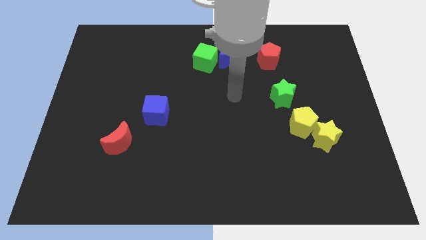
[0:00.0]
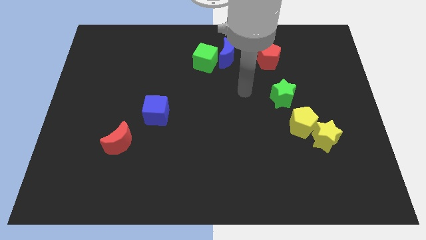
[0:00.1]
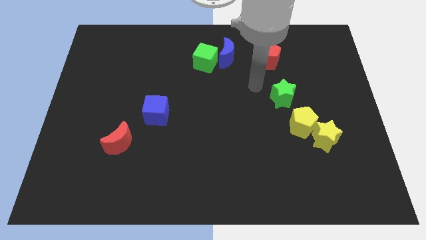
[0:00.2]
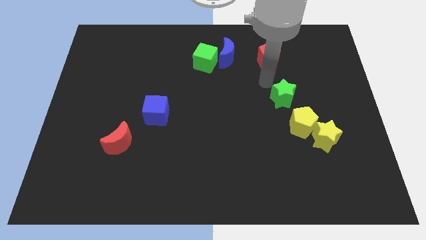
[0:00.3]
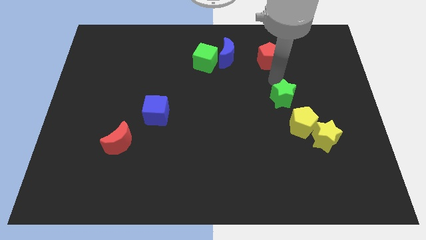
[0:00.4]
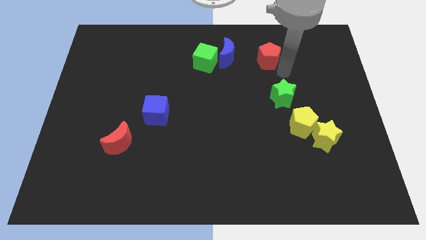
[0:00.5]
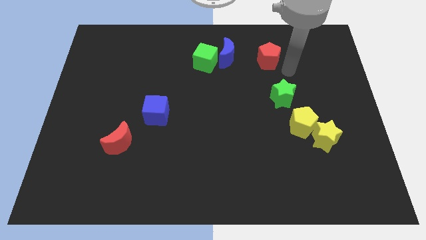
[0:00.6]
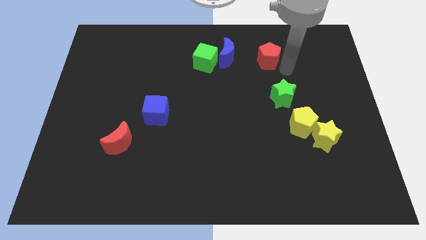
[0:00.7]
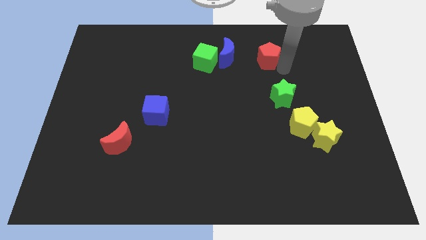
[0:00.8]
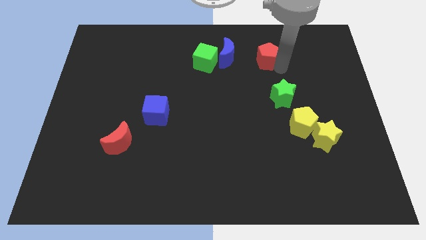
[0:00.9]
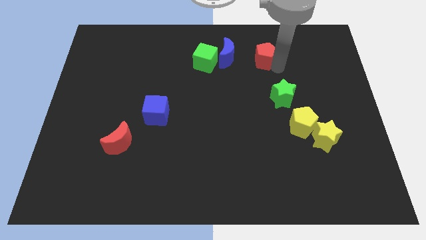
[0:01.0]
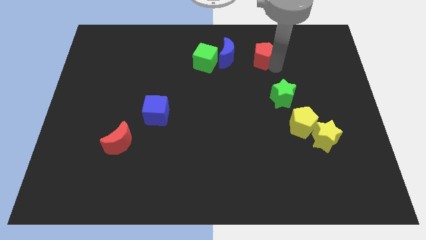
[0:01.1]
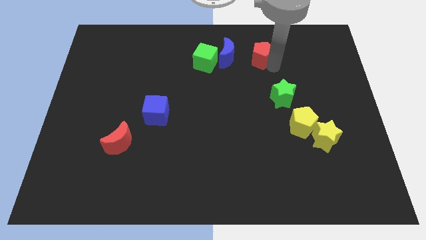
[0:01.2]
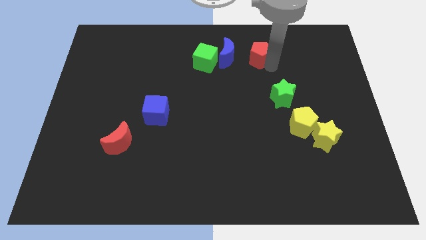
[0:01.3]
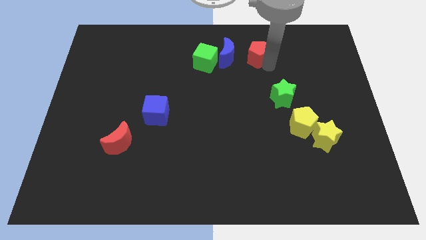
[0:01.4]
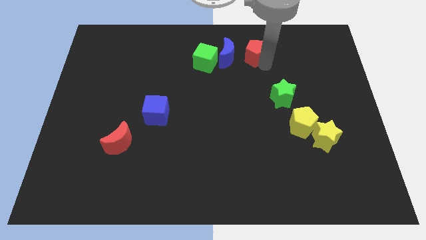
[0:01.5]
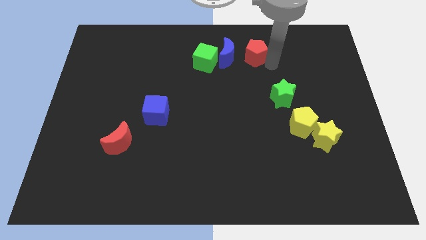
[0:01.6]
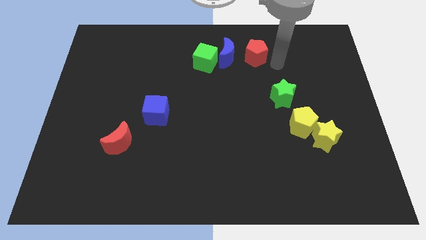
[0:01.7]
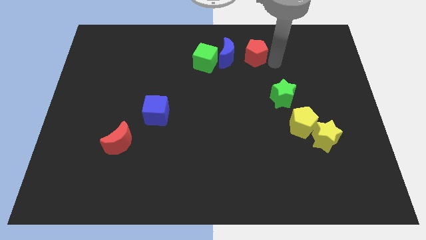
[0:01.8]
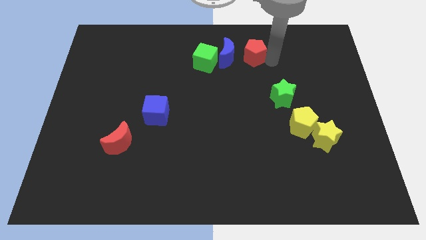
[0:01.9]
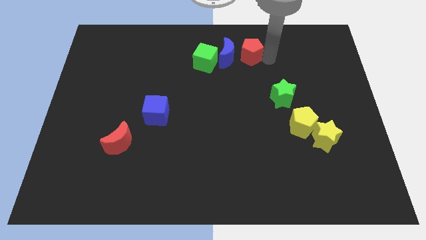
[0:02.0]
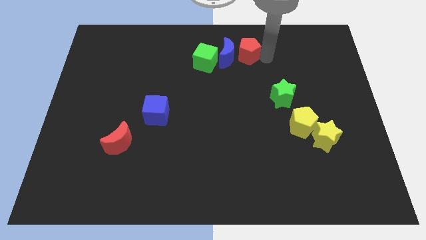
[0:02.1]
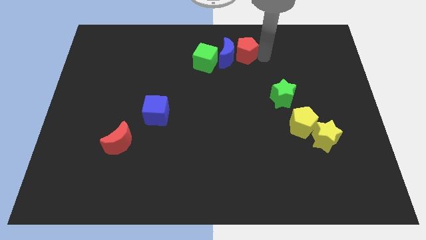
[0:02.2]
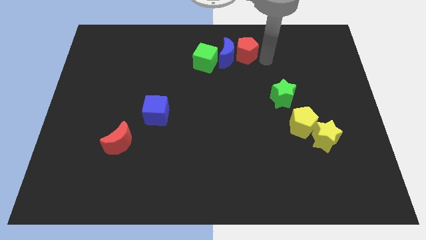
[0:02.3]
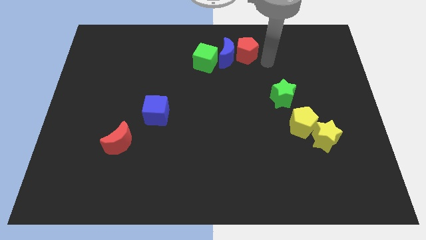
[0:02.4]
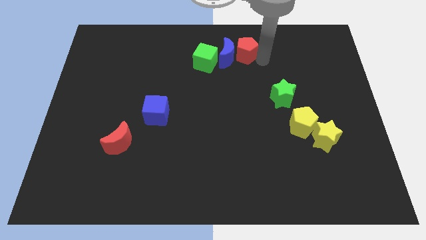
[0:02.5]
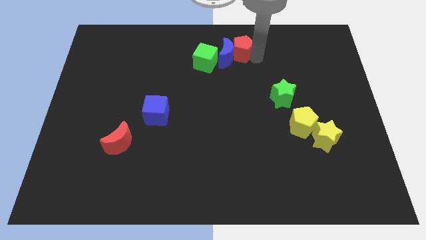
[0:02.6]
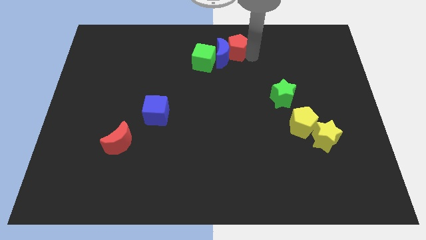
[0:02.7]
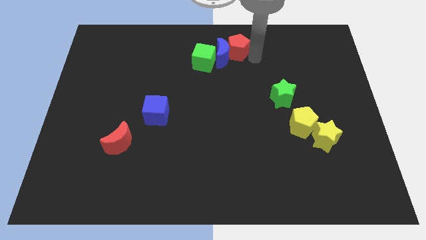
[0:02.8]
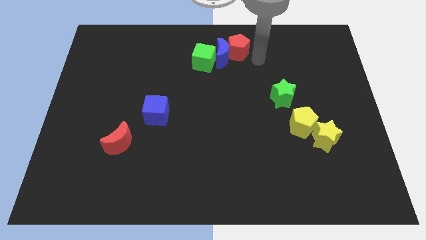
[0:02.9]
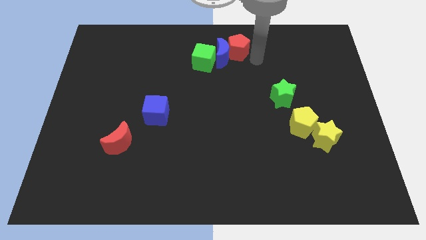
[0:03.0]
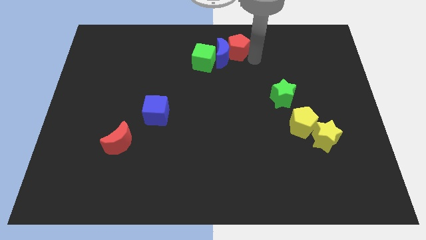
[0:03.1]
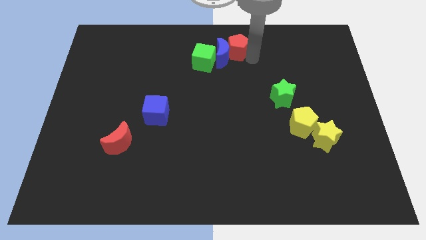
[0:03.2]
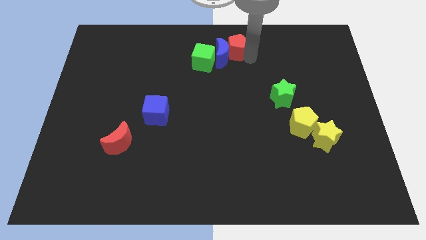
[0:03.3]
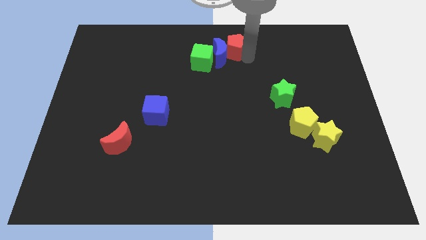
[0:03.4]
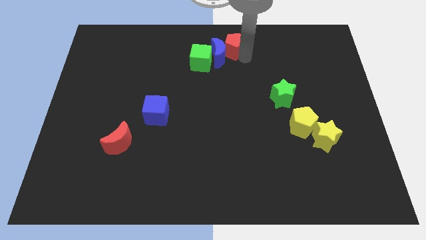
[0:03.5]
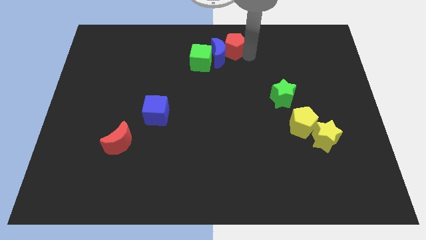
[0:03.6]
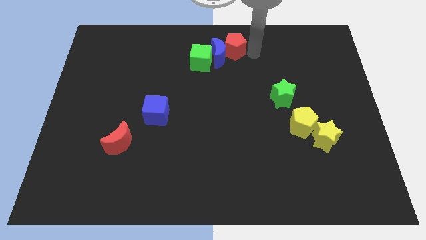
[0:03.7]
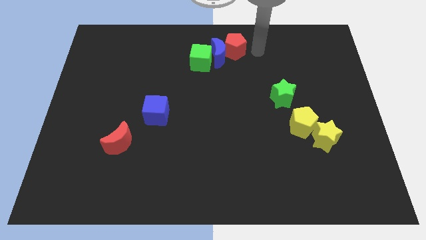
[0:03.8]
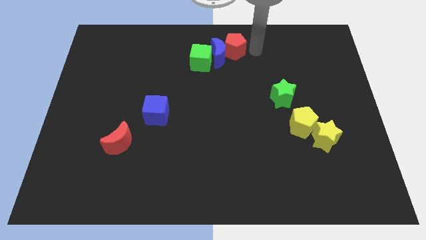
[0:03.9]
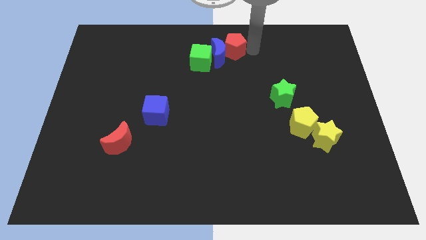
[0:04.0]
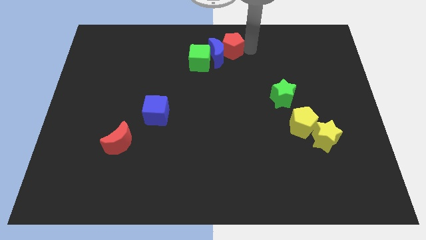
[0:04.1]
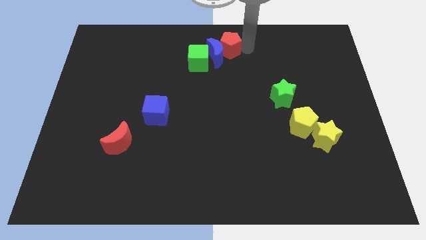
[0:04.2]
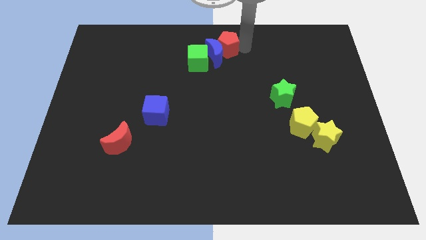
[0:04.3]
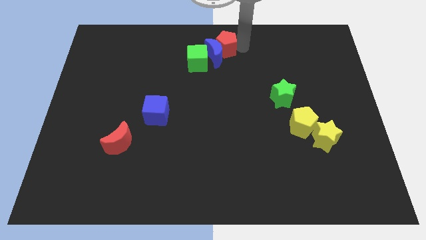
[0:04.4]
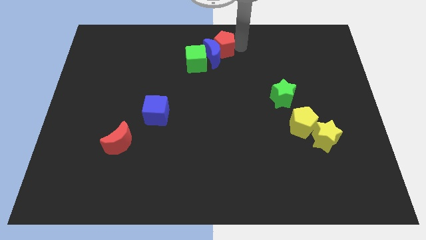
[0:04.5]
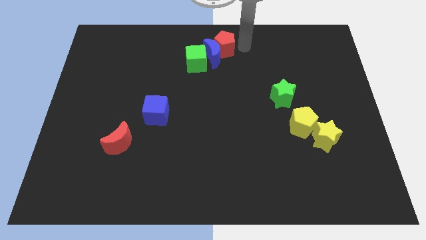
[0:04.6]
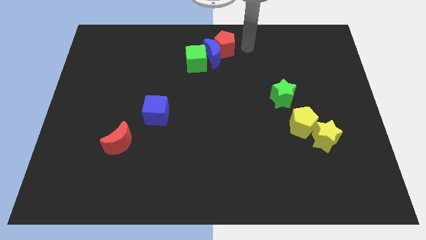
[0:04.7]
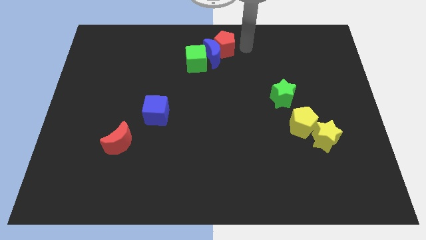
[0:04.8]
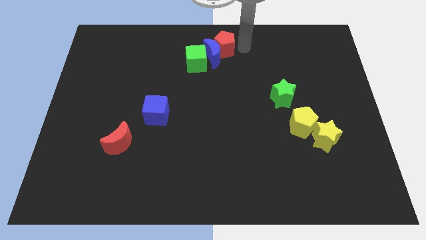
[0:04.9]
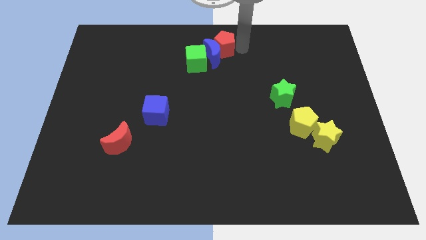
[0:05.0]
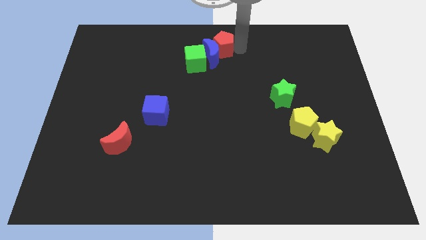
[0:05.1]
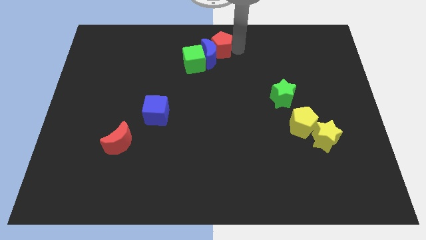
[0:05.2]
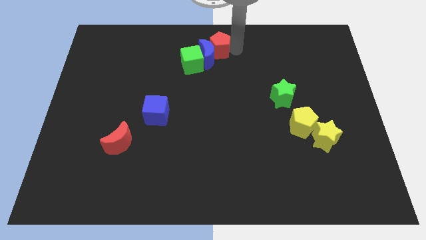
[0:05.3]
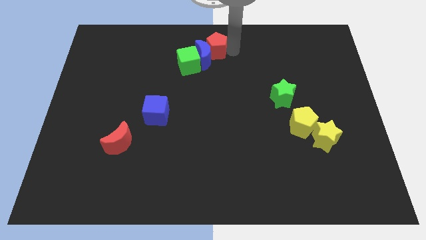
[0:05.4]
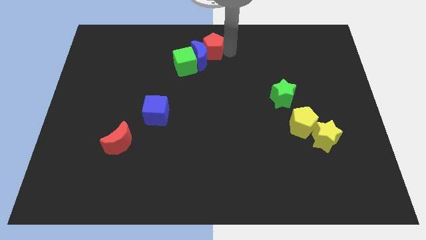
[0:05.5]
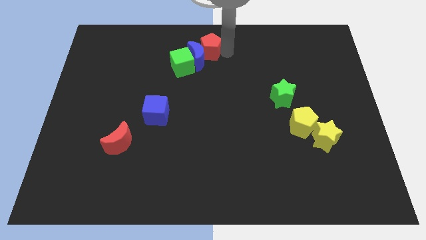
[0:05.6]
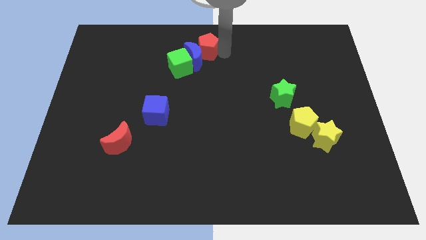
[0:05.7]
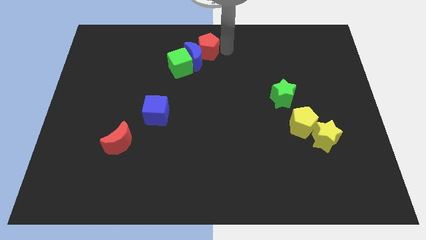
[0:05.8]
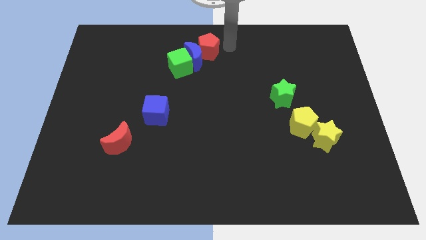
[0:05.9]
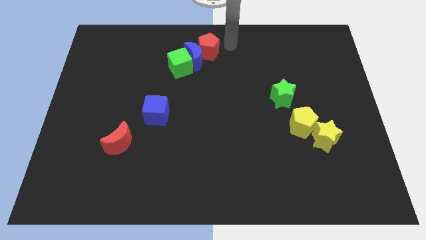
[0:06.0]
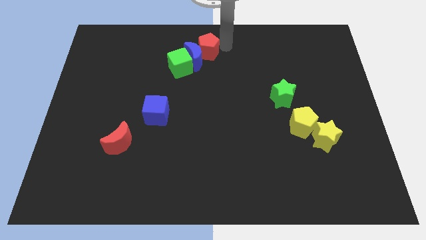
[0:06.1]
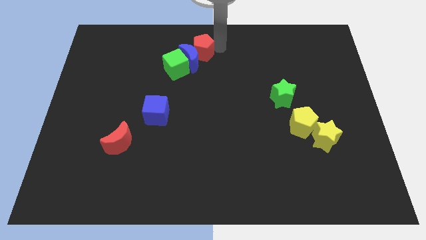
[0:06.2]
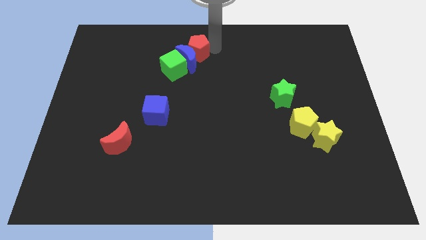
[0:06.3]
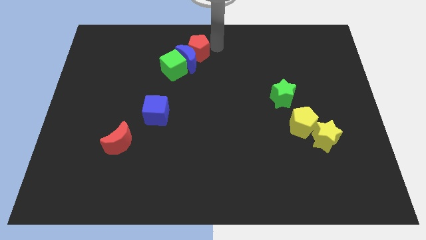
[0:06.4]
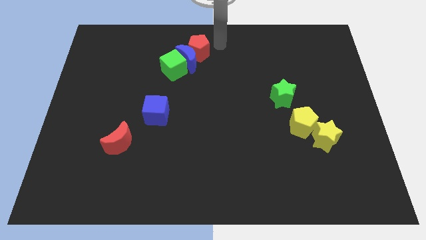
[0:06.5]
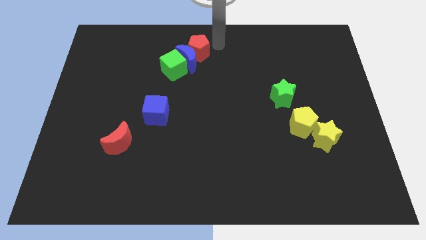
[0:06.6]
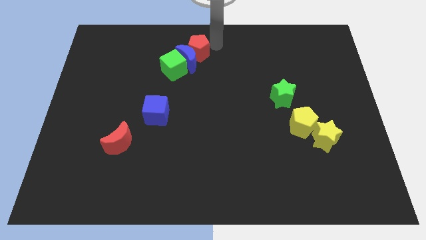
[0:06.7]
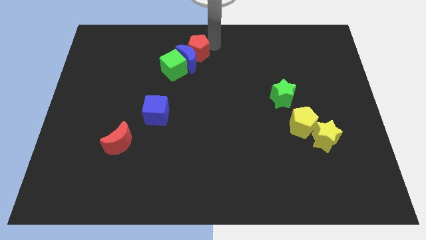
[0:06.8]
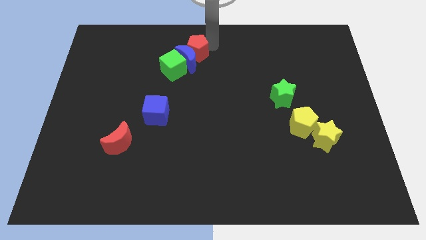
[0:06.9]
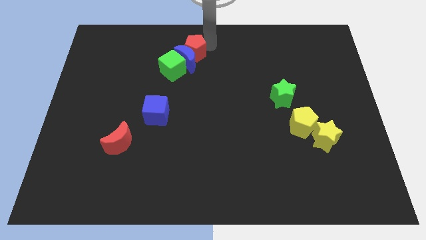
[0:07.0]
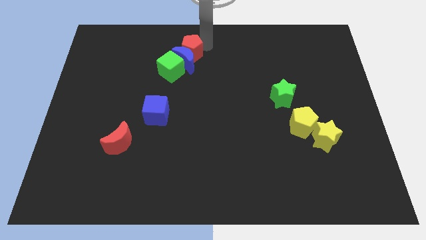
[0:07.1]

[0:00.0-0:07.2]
slide the red pentagon to the left

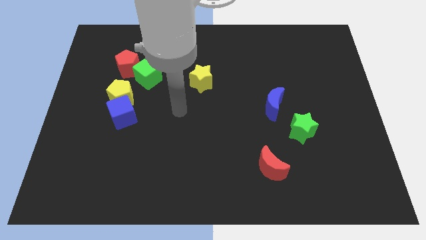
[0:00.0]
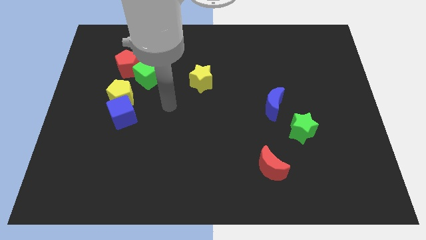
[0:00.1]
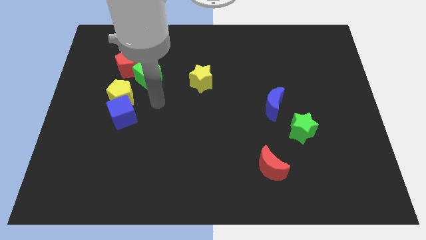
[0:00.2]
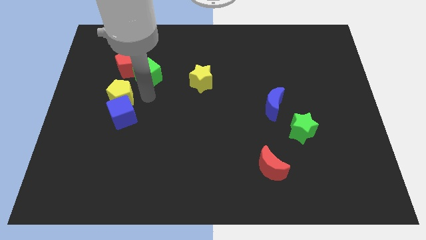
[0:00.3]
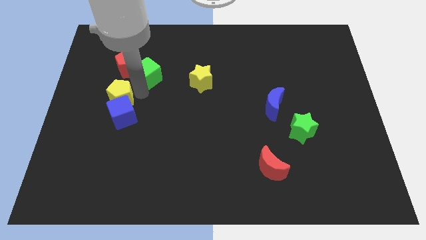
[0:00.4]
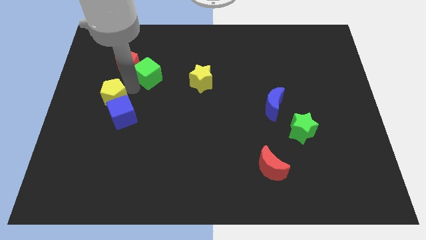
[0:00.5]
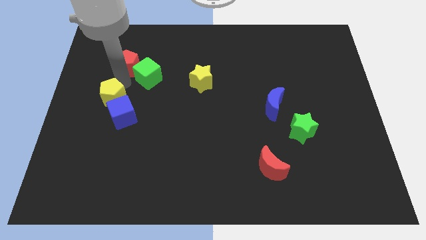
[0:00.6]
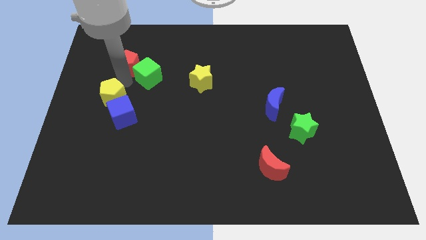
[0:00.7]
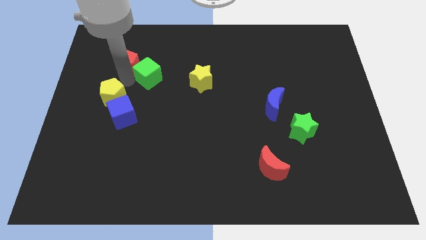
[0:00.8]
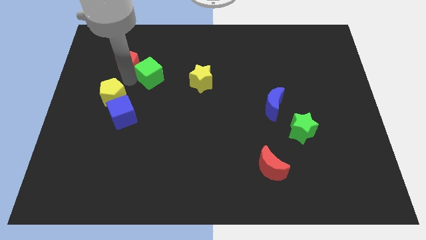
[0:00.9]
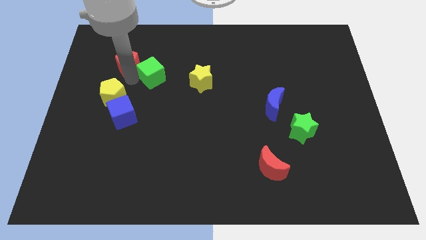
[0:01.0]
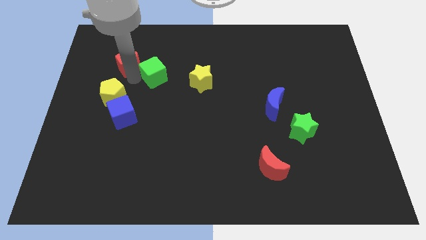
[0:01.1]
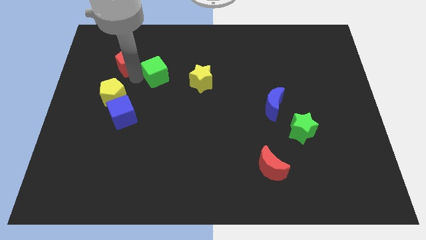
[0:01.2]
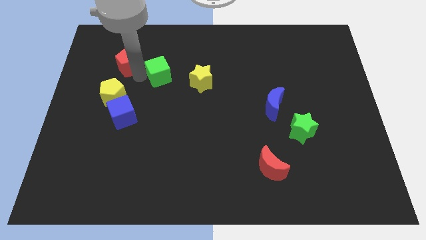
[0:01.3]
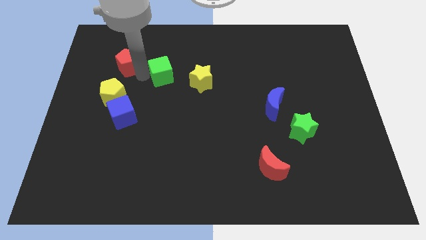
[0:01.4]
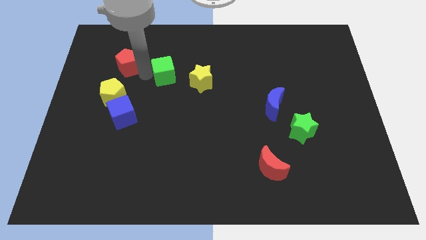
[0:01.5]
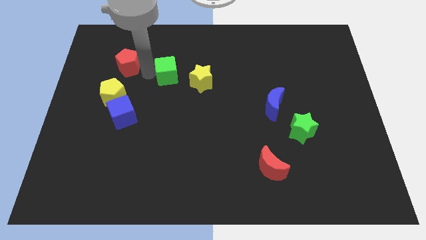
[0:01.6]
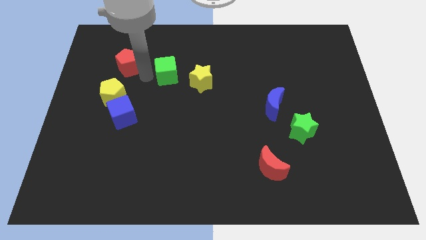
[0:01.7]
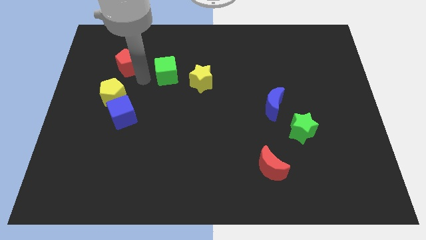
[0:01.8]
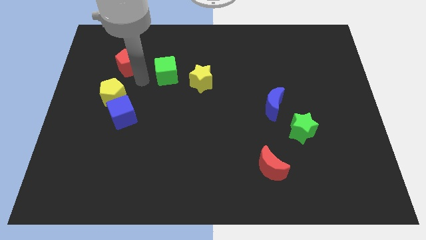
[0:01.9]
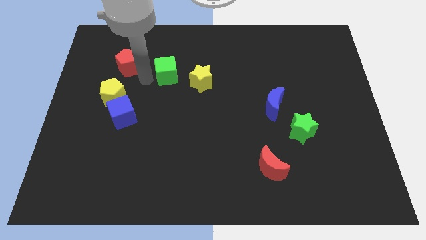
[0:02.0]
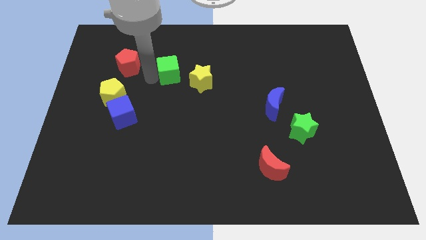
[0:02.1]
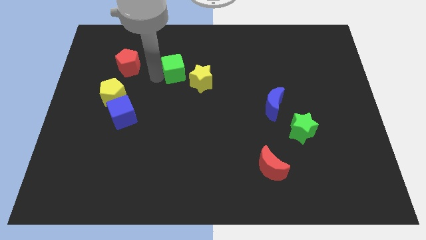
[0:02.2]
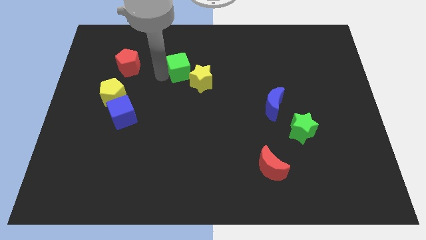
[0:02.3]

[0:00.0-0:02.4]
slightly push the green cube right
